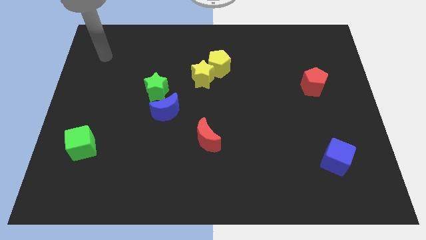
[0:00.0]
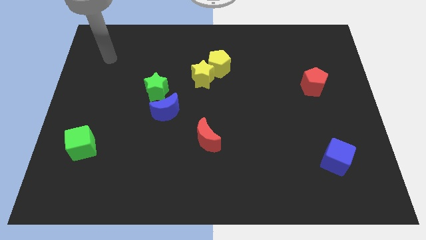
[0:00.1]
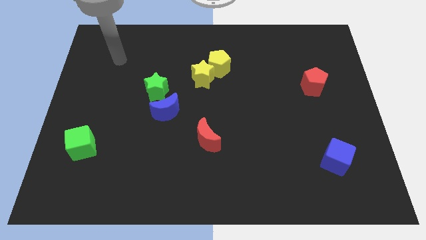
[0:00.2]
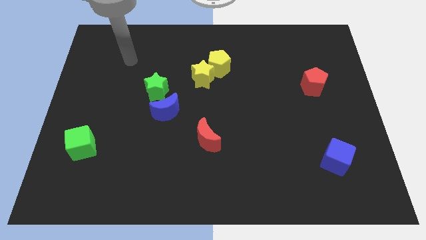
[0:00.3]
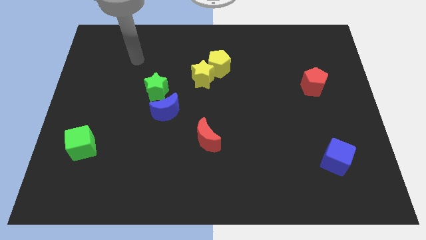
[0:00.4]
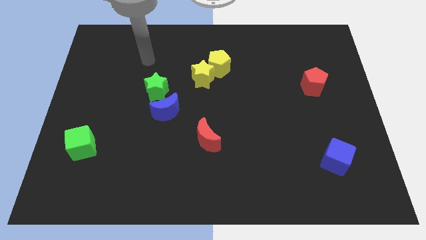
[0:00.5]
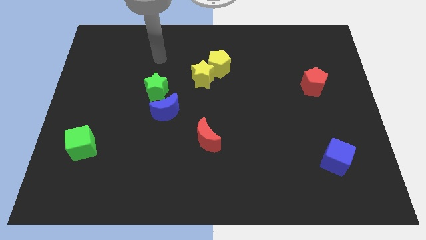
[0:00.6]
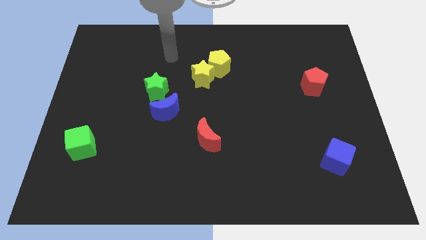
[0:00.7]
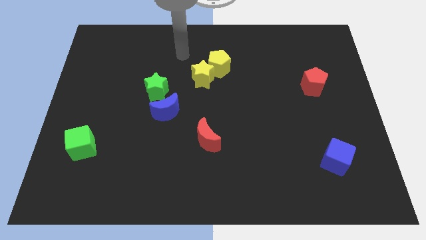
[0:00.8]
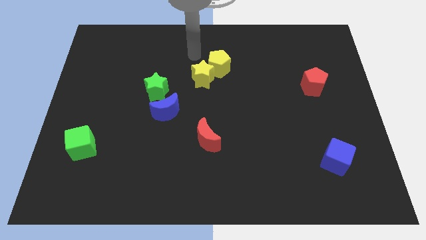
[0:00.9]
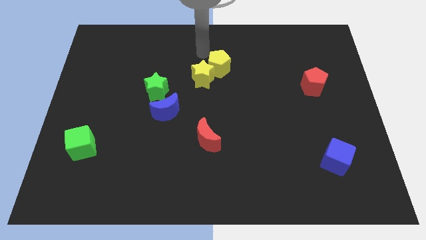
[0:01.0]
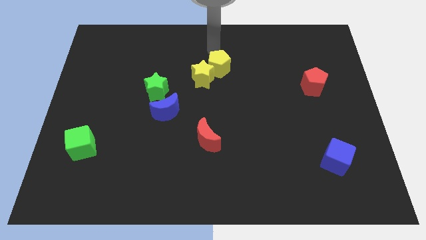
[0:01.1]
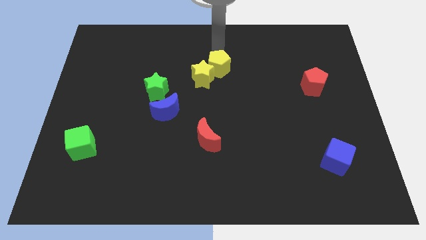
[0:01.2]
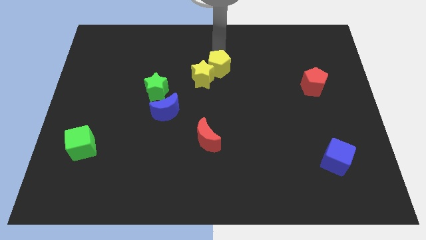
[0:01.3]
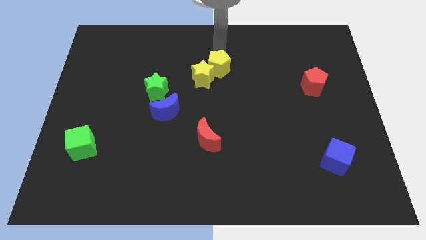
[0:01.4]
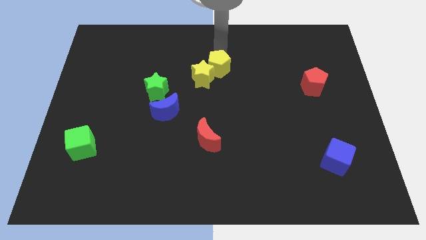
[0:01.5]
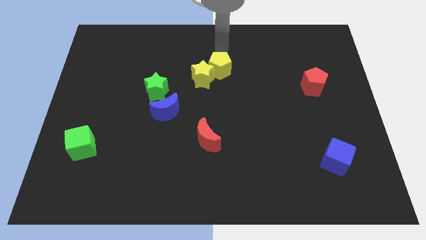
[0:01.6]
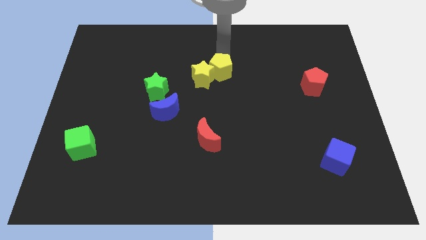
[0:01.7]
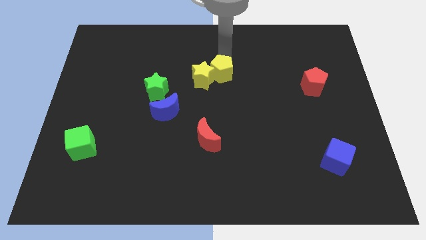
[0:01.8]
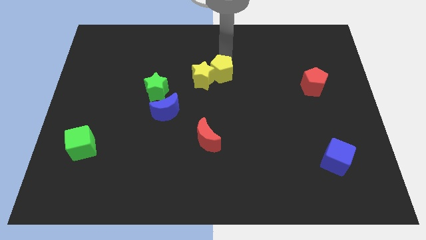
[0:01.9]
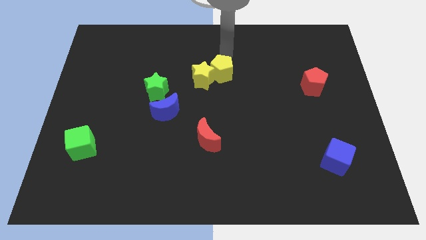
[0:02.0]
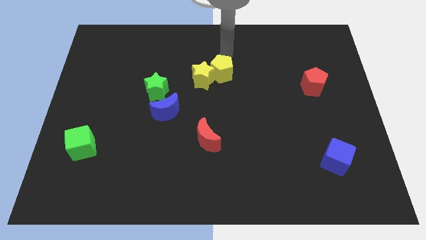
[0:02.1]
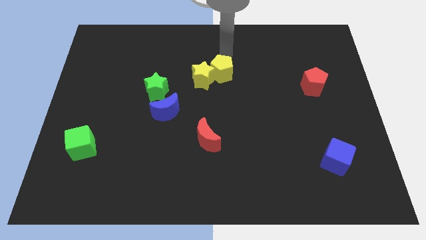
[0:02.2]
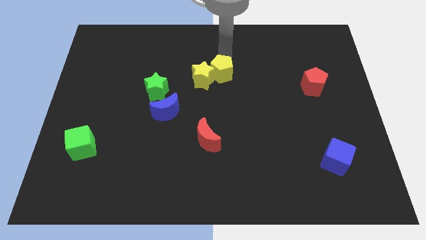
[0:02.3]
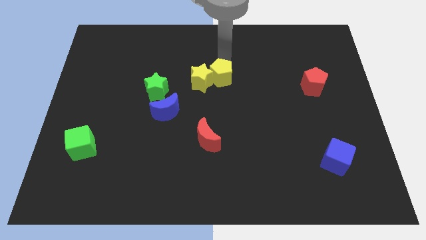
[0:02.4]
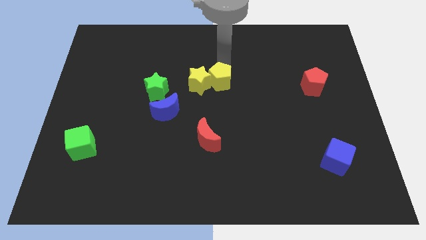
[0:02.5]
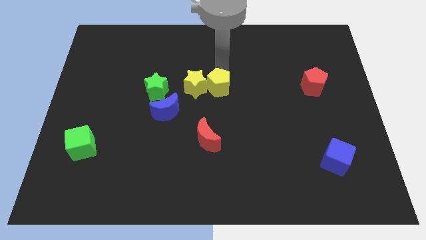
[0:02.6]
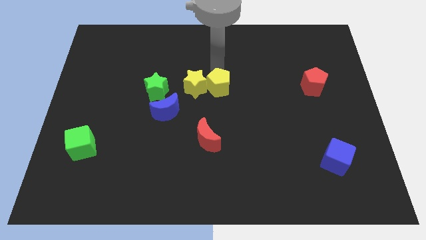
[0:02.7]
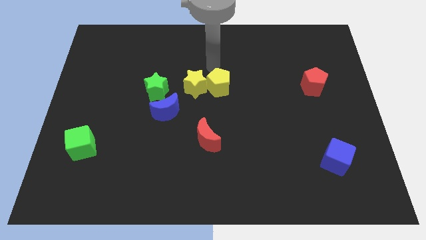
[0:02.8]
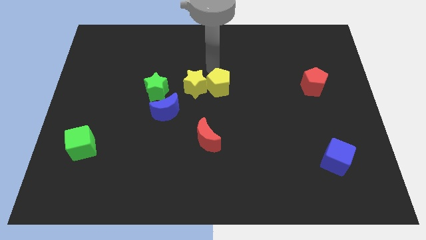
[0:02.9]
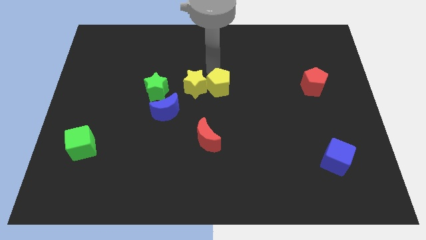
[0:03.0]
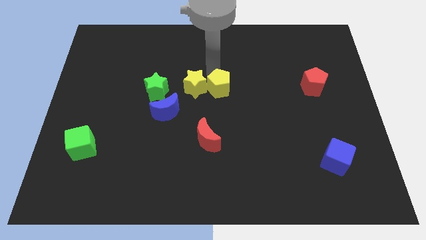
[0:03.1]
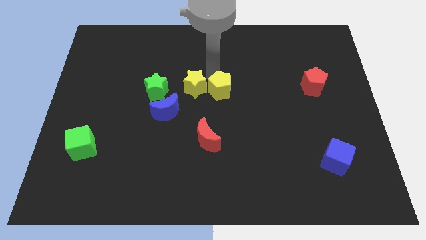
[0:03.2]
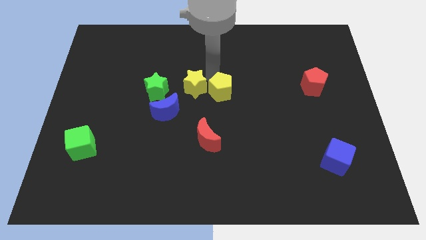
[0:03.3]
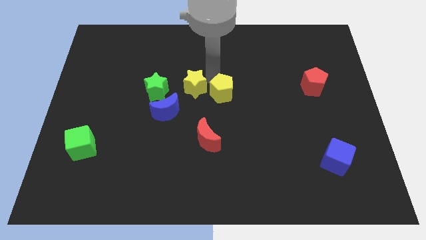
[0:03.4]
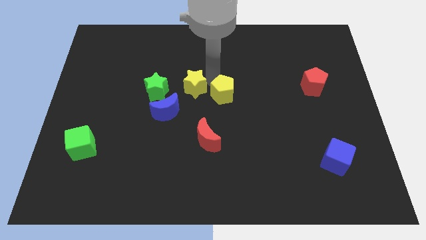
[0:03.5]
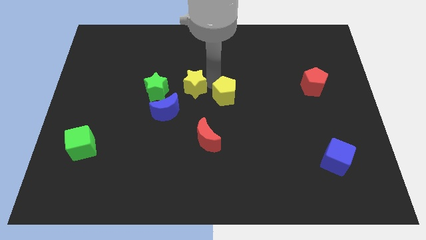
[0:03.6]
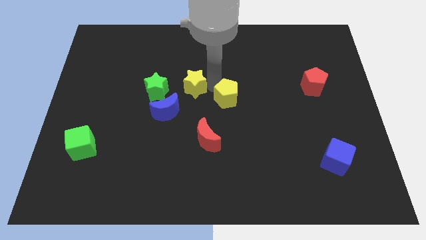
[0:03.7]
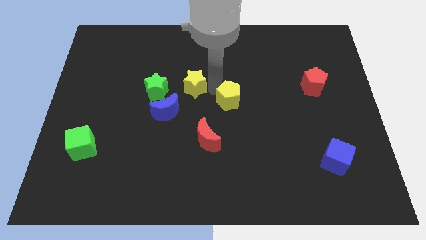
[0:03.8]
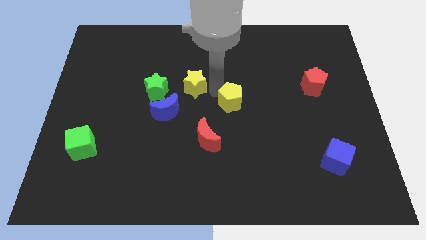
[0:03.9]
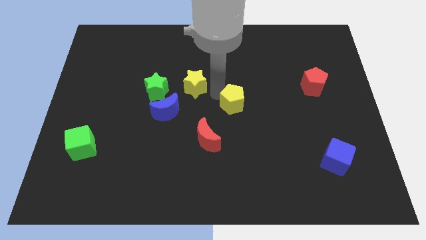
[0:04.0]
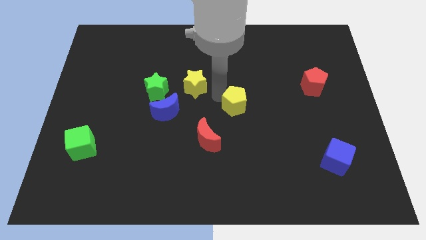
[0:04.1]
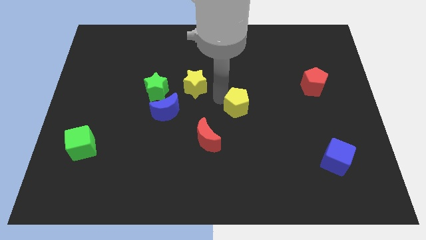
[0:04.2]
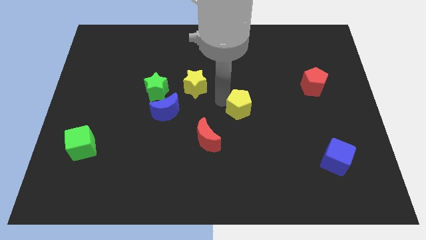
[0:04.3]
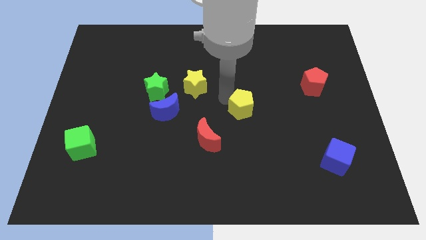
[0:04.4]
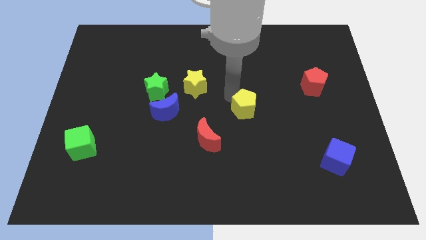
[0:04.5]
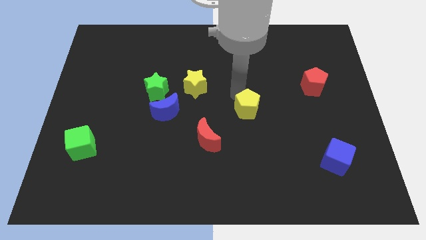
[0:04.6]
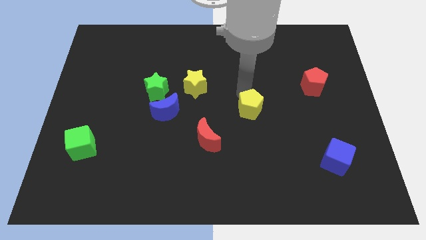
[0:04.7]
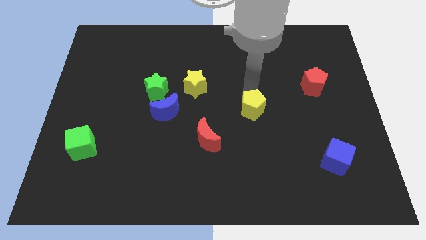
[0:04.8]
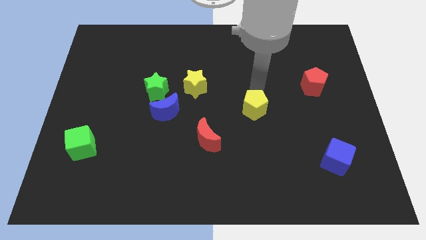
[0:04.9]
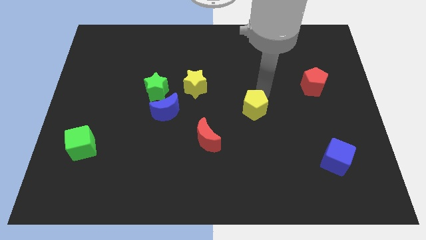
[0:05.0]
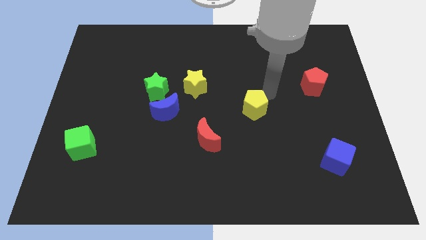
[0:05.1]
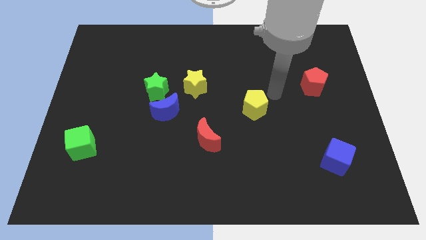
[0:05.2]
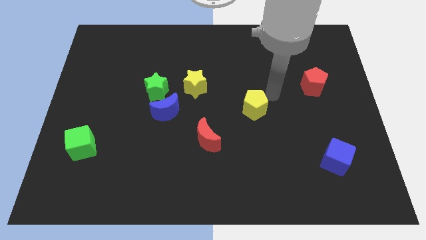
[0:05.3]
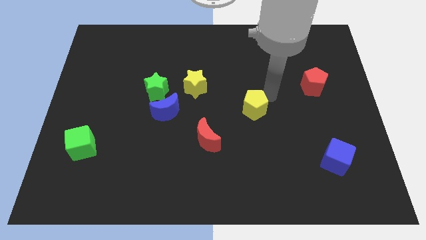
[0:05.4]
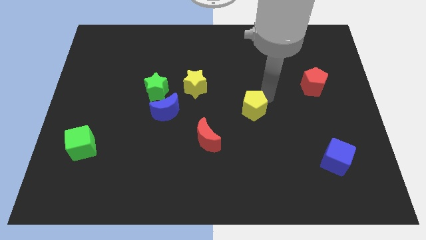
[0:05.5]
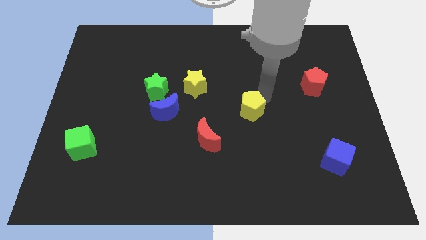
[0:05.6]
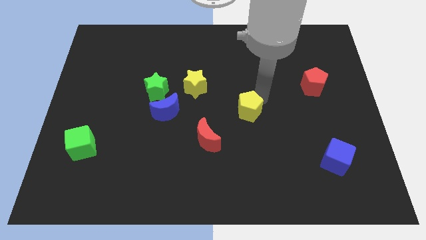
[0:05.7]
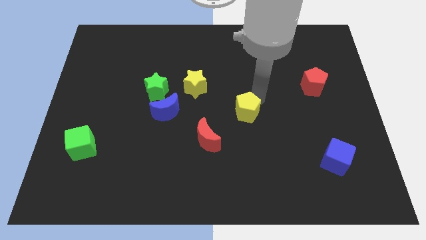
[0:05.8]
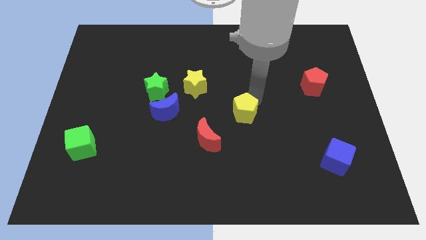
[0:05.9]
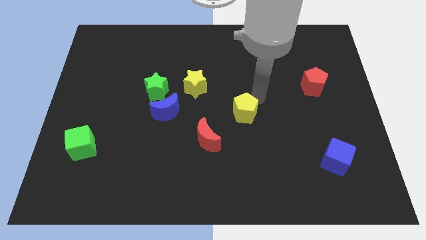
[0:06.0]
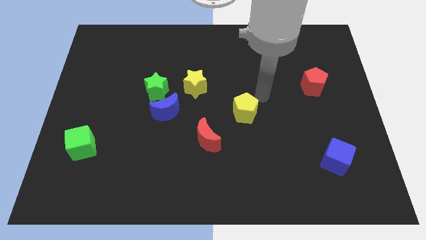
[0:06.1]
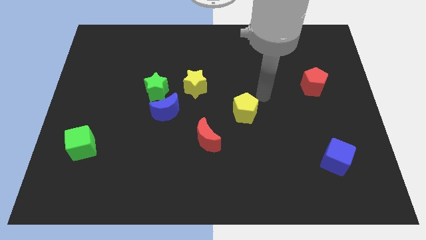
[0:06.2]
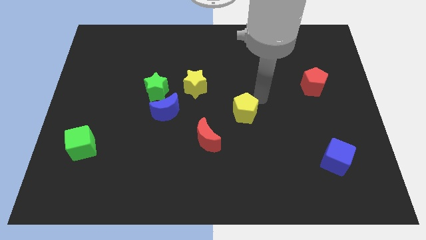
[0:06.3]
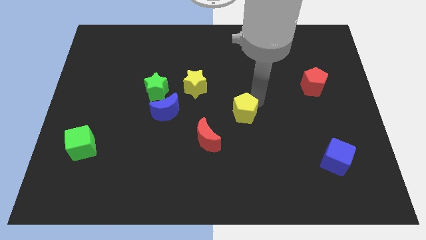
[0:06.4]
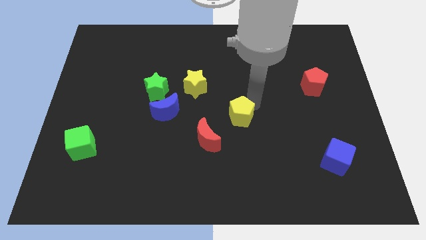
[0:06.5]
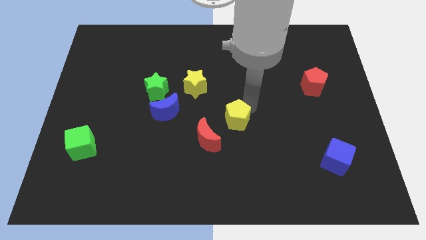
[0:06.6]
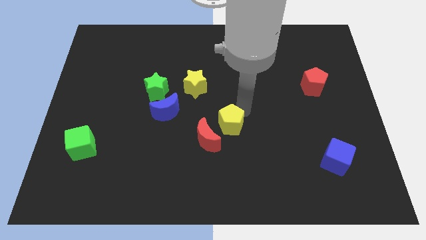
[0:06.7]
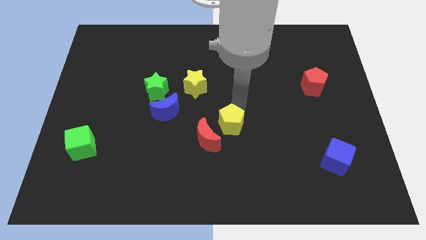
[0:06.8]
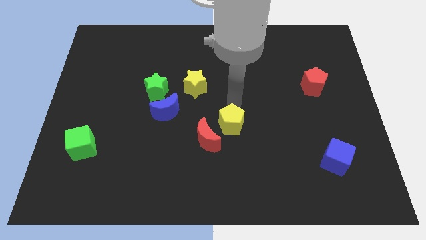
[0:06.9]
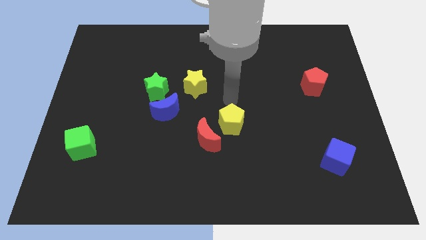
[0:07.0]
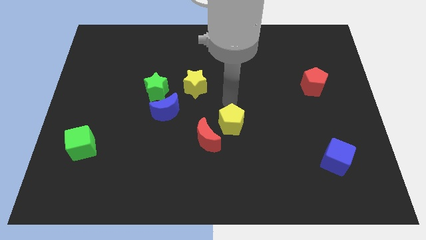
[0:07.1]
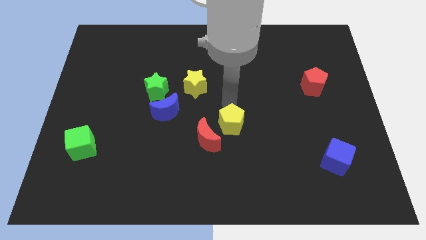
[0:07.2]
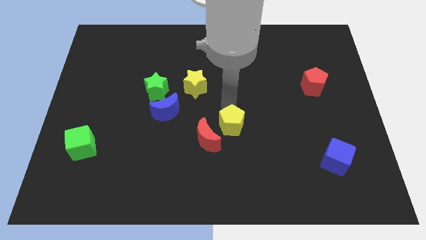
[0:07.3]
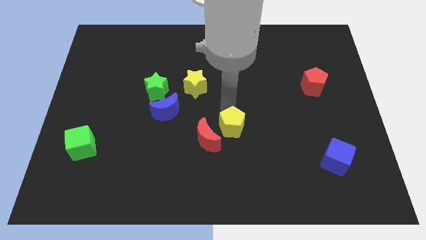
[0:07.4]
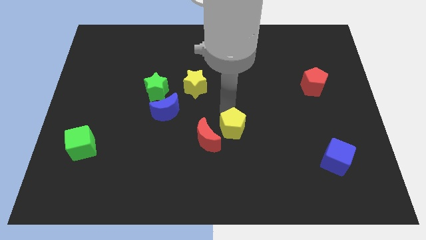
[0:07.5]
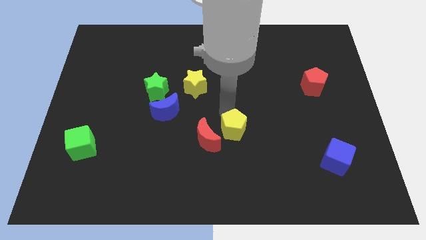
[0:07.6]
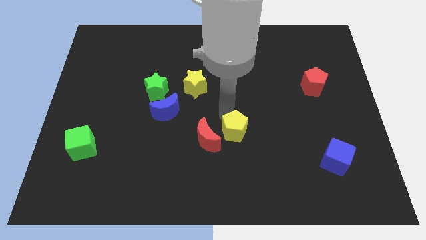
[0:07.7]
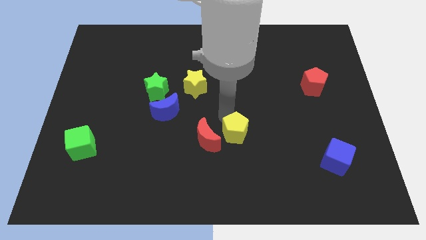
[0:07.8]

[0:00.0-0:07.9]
push the yellow pentagon down
